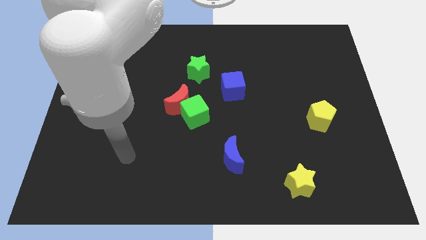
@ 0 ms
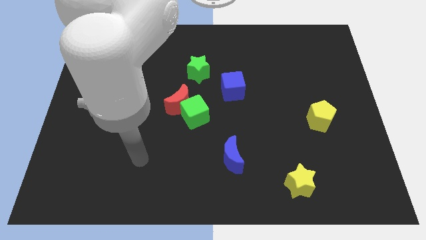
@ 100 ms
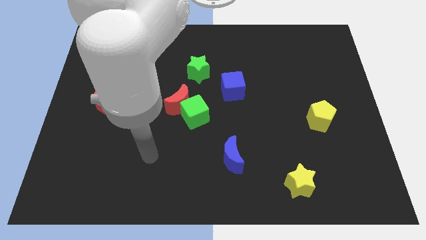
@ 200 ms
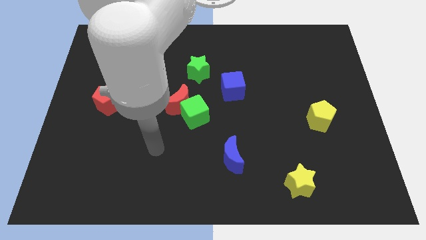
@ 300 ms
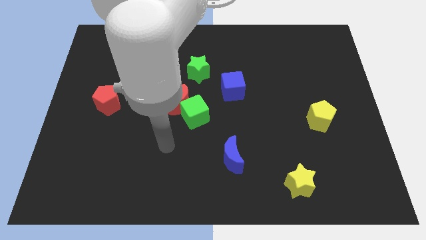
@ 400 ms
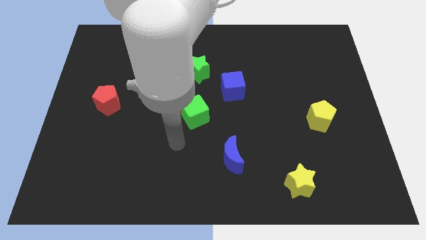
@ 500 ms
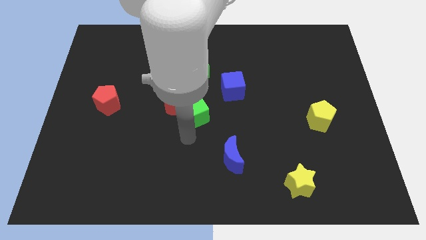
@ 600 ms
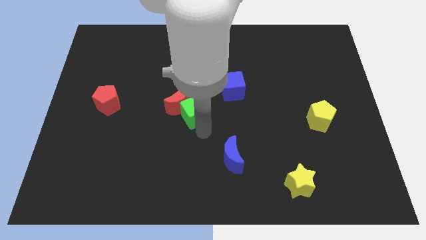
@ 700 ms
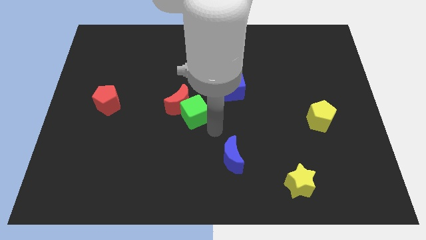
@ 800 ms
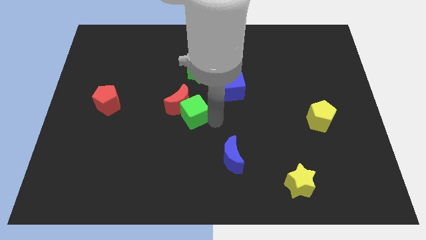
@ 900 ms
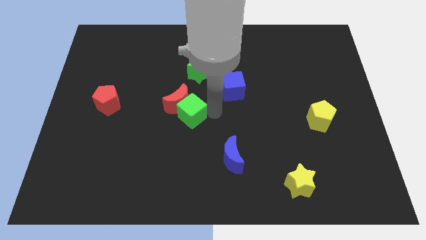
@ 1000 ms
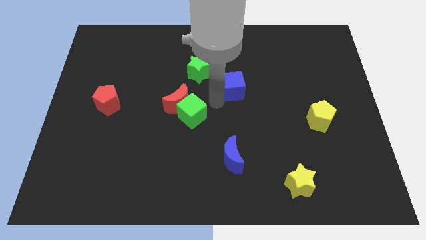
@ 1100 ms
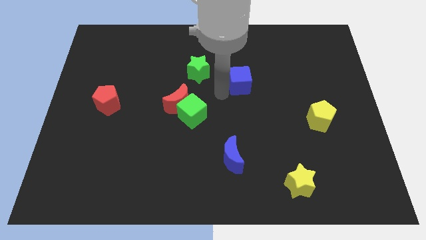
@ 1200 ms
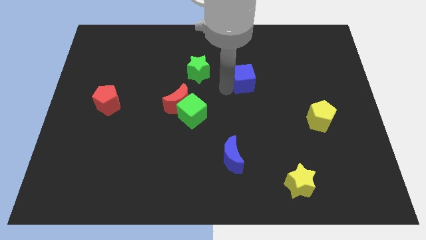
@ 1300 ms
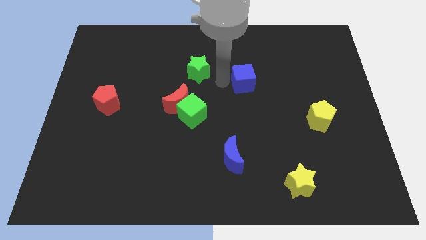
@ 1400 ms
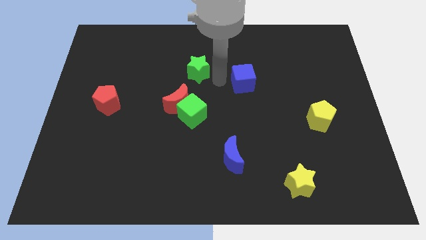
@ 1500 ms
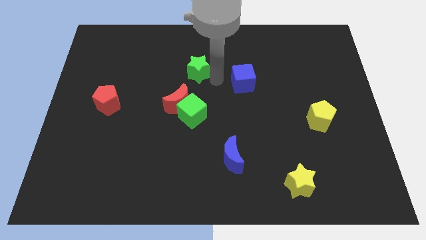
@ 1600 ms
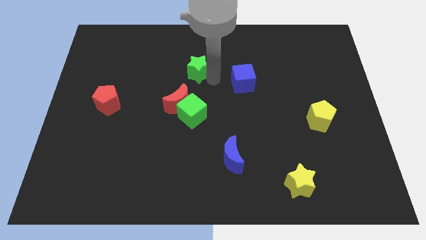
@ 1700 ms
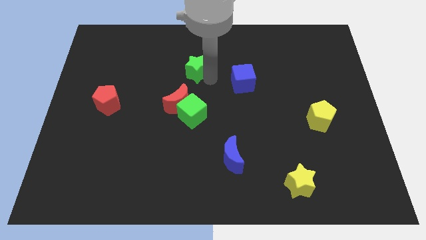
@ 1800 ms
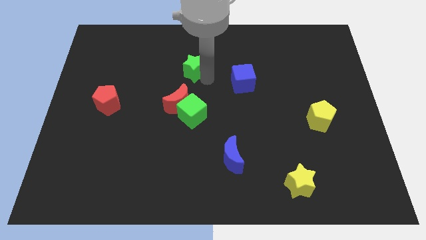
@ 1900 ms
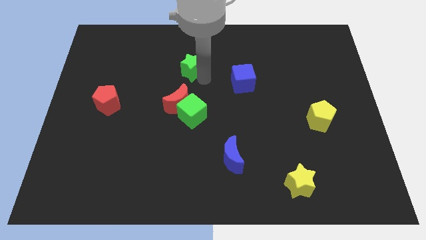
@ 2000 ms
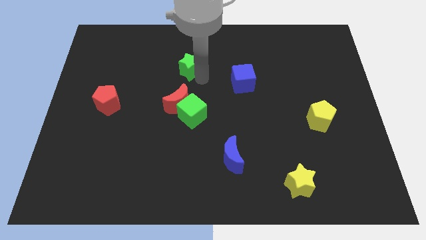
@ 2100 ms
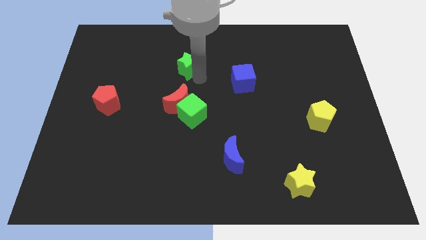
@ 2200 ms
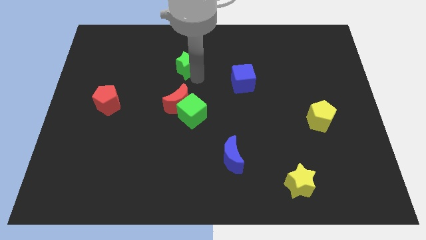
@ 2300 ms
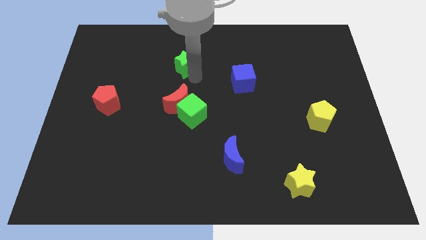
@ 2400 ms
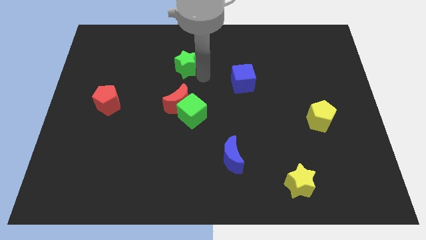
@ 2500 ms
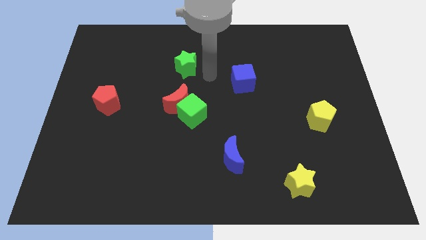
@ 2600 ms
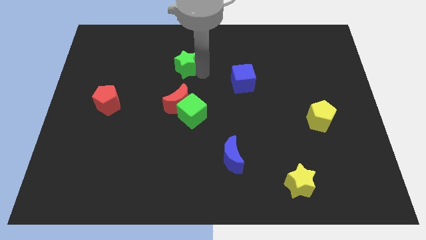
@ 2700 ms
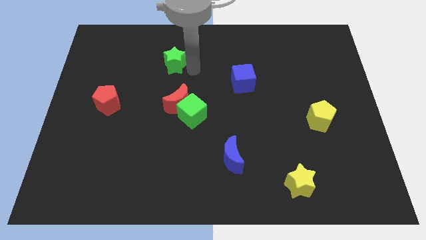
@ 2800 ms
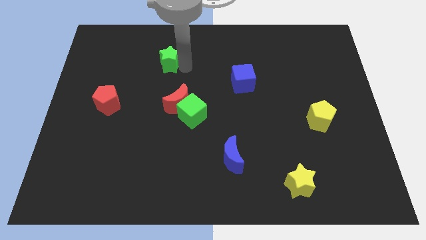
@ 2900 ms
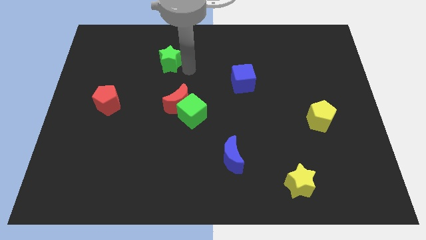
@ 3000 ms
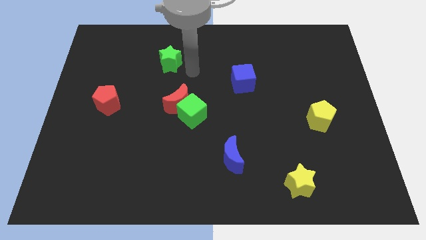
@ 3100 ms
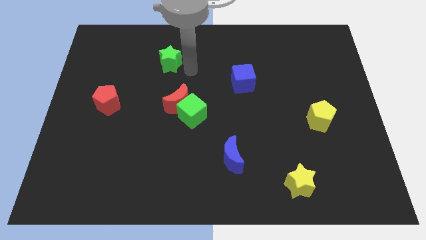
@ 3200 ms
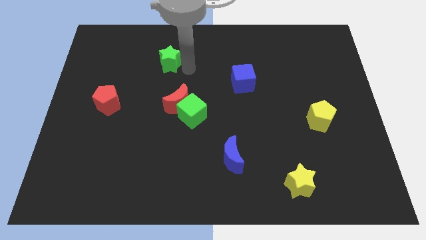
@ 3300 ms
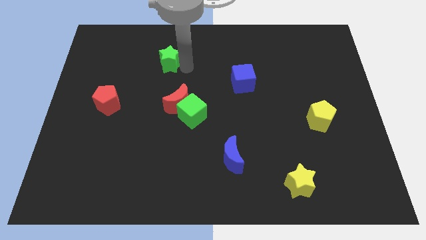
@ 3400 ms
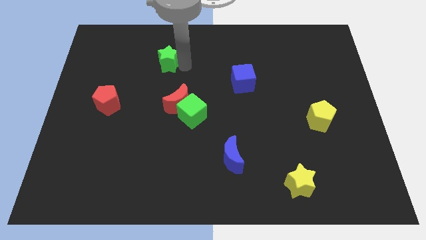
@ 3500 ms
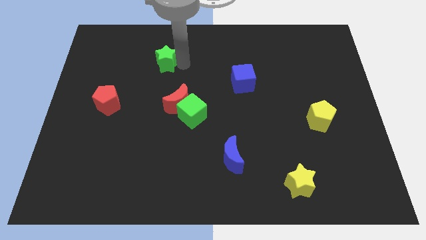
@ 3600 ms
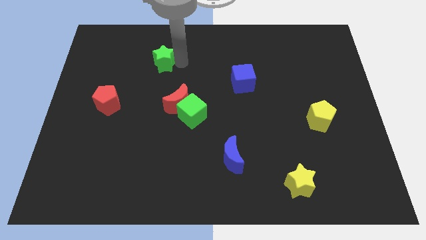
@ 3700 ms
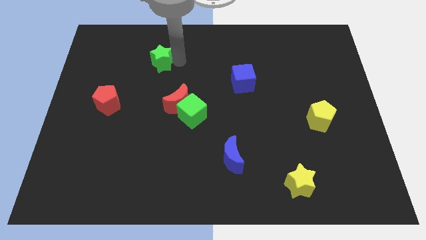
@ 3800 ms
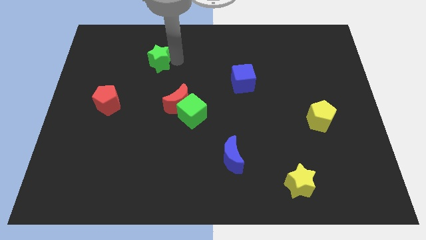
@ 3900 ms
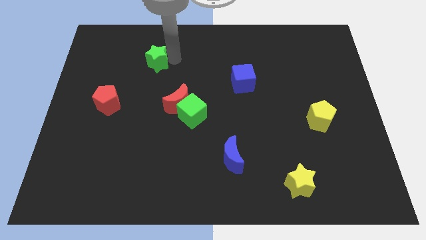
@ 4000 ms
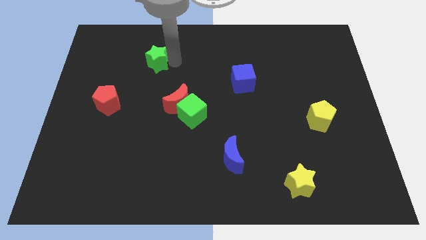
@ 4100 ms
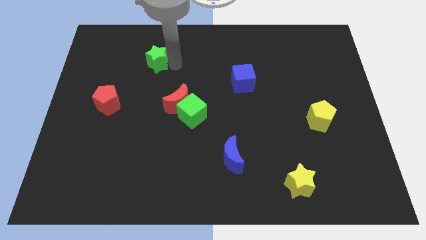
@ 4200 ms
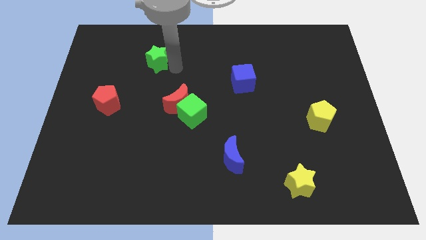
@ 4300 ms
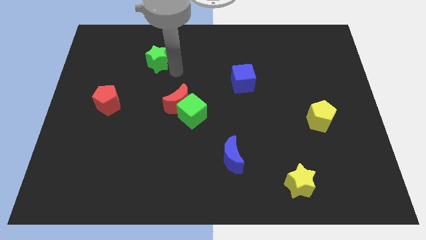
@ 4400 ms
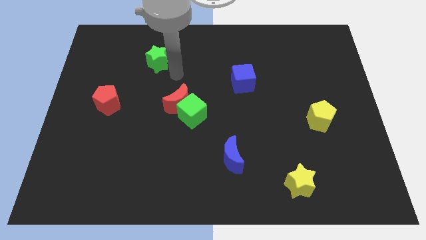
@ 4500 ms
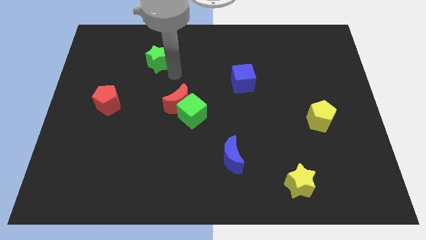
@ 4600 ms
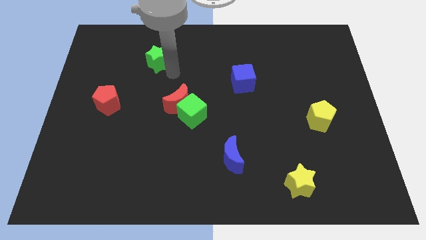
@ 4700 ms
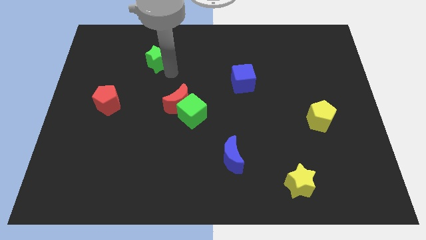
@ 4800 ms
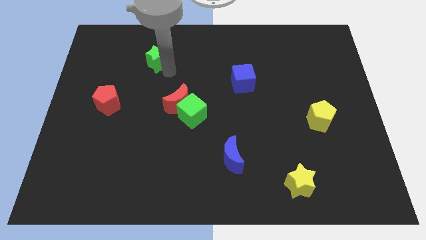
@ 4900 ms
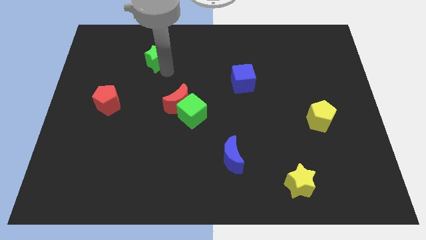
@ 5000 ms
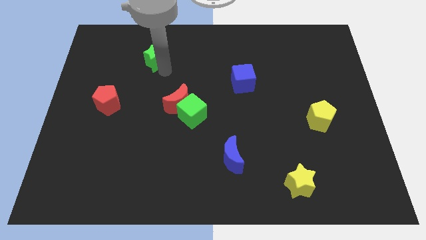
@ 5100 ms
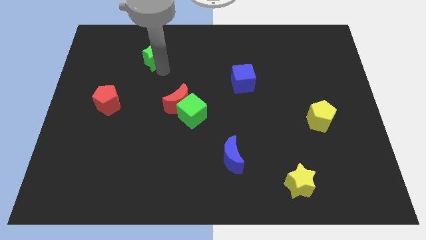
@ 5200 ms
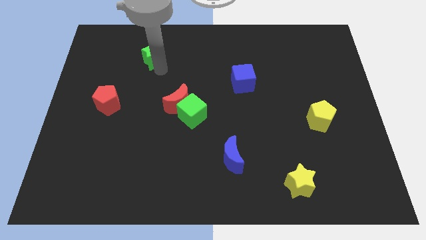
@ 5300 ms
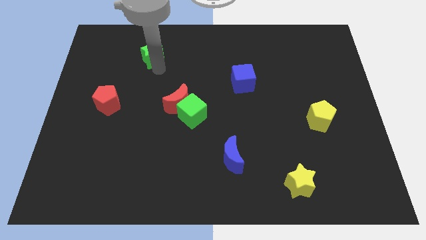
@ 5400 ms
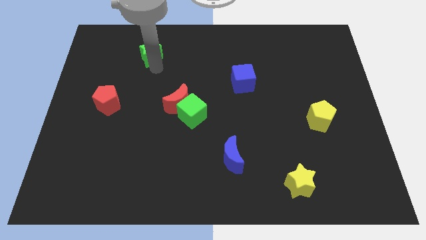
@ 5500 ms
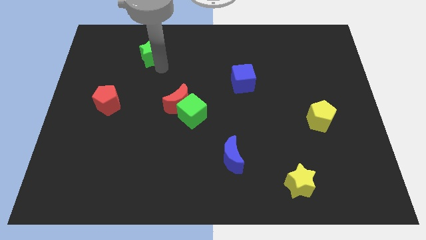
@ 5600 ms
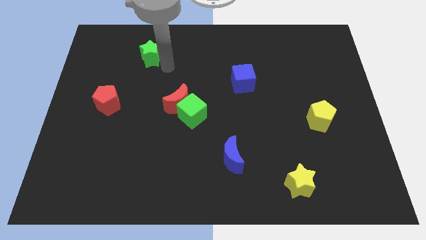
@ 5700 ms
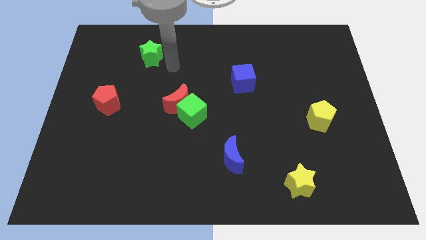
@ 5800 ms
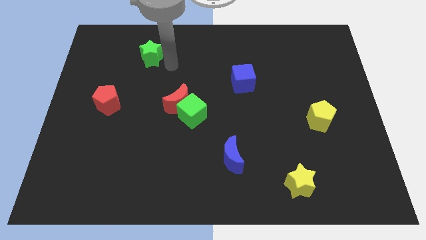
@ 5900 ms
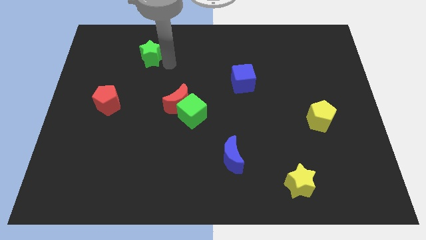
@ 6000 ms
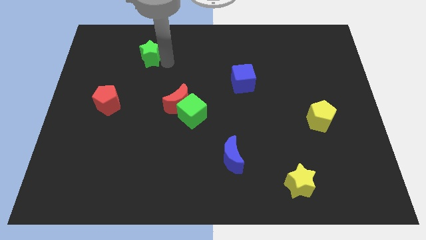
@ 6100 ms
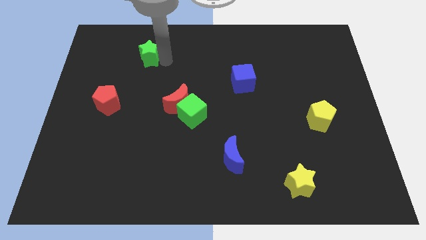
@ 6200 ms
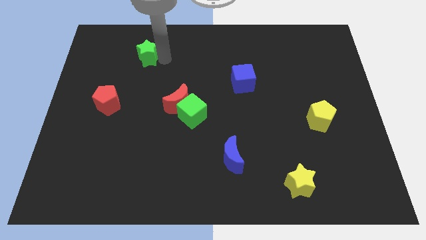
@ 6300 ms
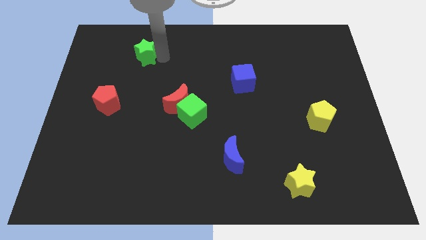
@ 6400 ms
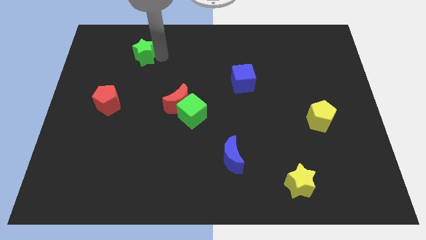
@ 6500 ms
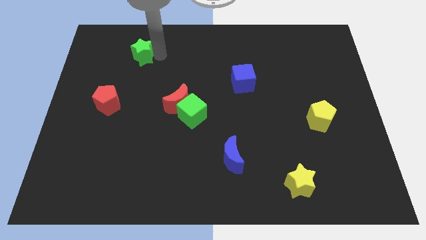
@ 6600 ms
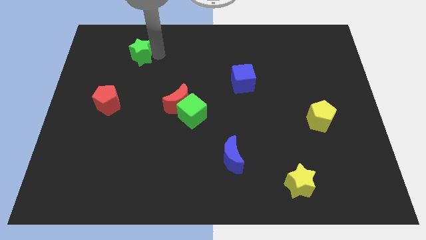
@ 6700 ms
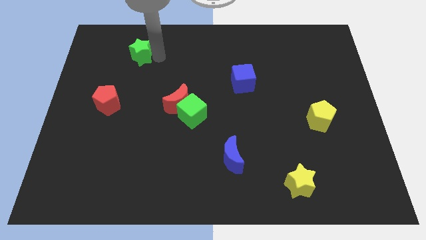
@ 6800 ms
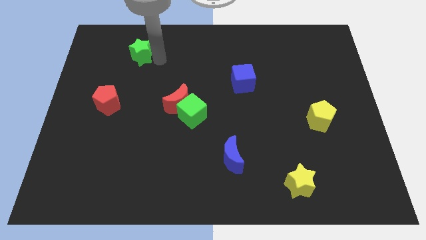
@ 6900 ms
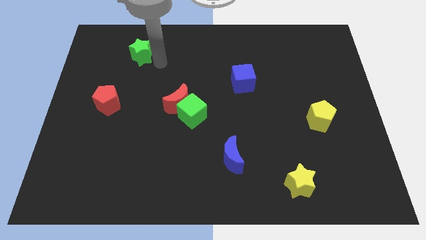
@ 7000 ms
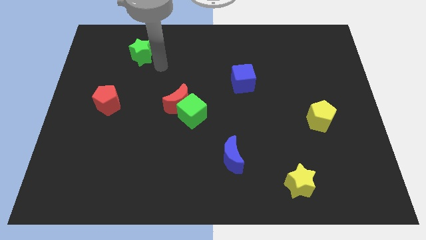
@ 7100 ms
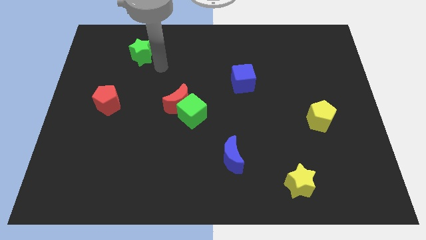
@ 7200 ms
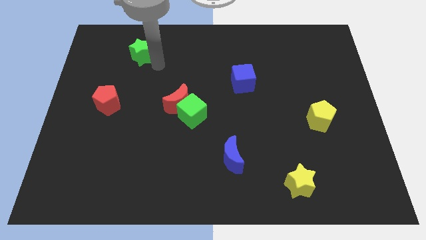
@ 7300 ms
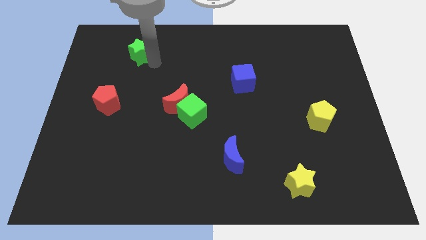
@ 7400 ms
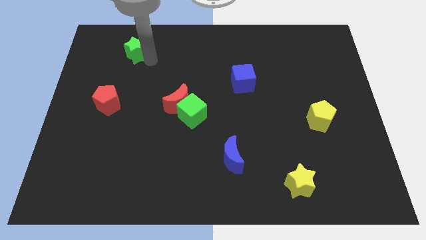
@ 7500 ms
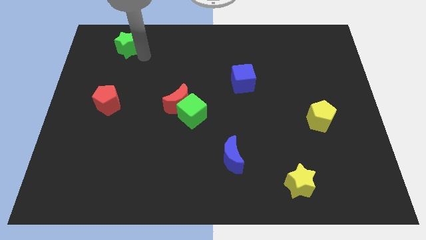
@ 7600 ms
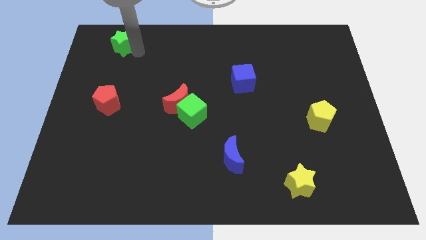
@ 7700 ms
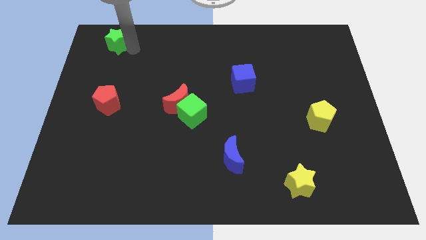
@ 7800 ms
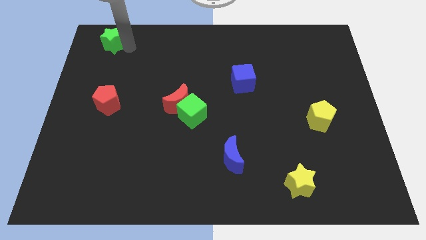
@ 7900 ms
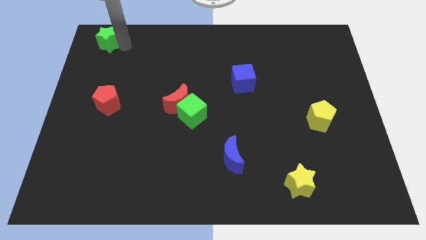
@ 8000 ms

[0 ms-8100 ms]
push the green star to the upper left corner
